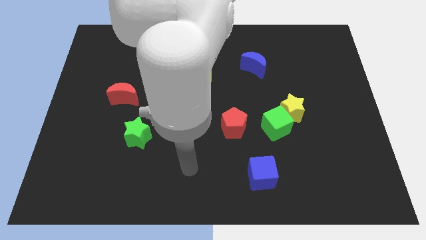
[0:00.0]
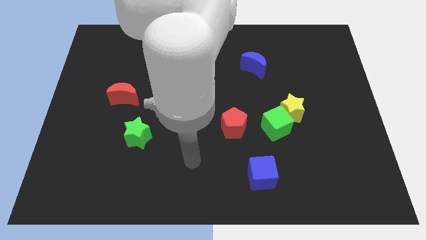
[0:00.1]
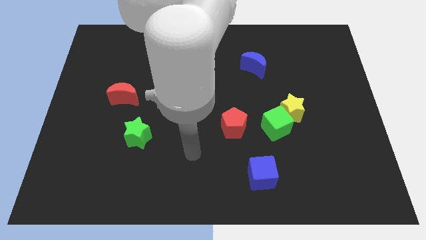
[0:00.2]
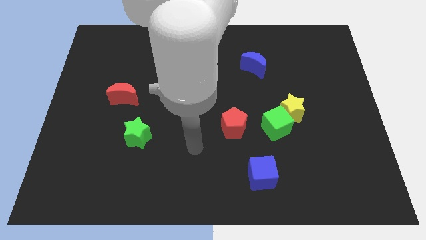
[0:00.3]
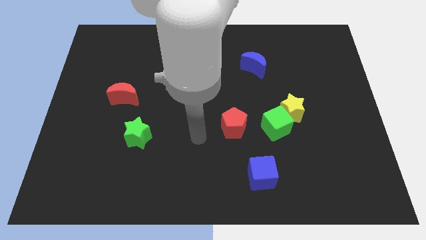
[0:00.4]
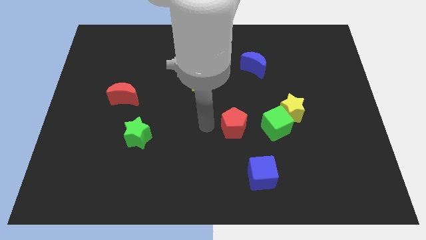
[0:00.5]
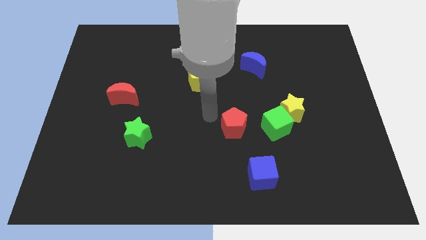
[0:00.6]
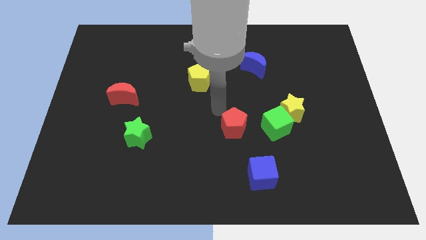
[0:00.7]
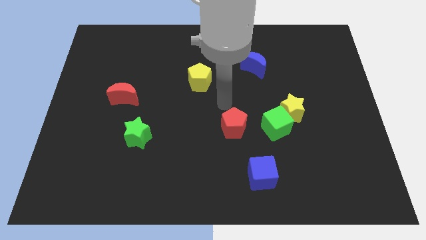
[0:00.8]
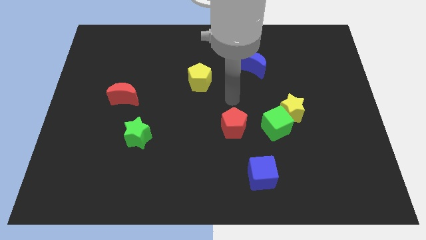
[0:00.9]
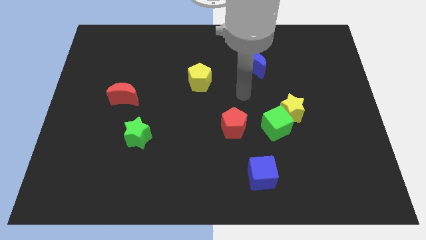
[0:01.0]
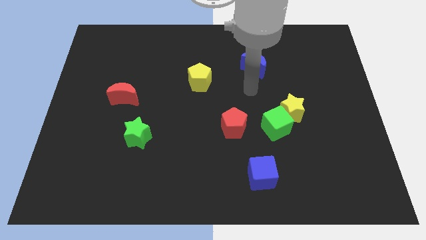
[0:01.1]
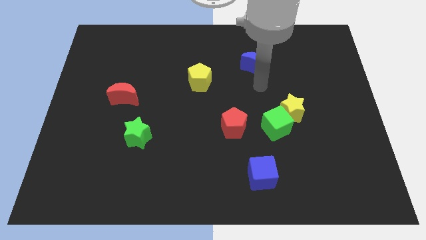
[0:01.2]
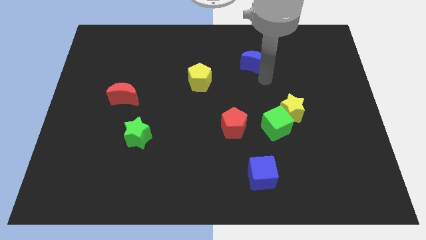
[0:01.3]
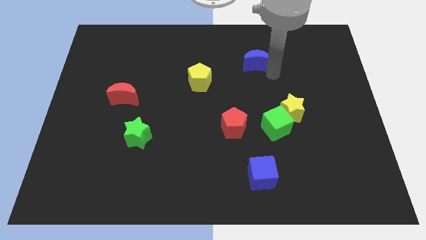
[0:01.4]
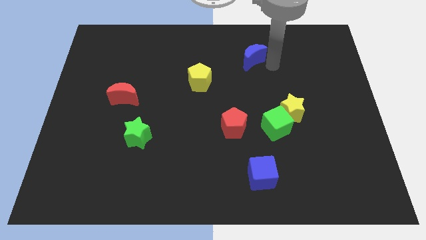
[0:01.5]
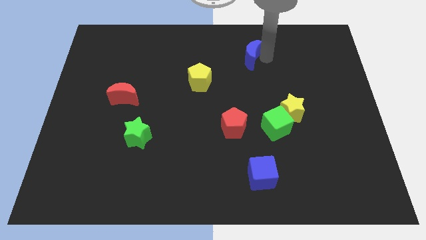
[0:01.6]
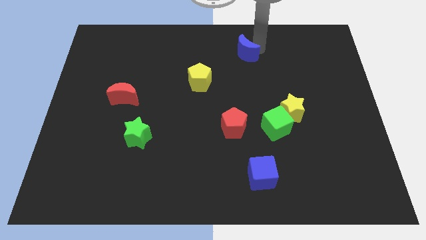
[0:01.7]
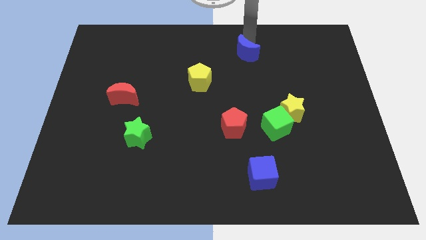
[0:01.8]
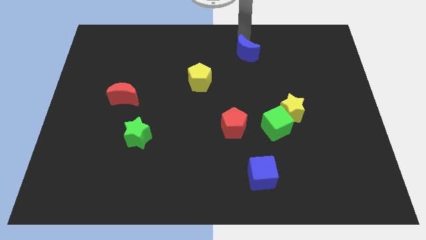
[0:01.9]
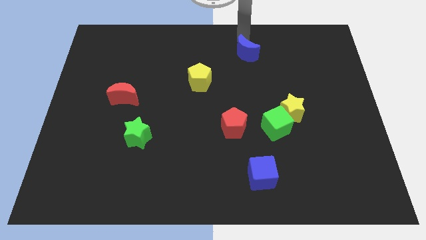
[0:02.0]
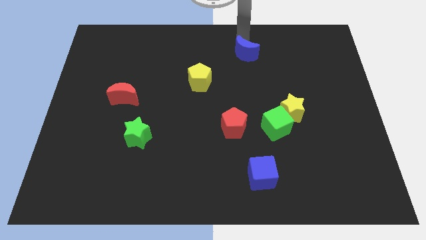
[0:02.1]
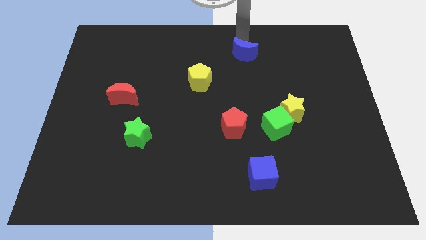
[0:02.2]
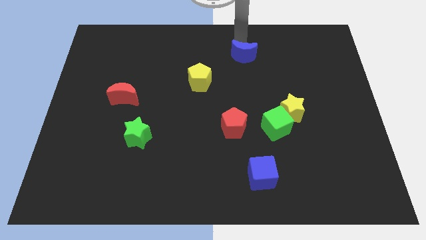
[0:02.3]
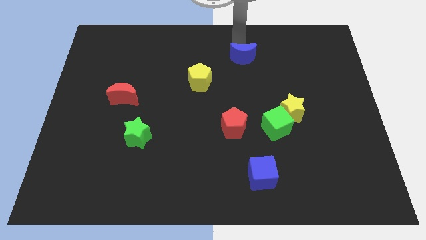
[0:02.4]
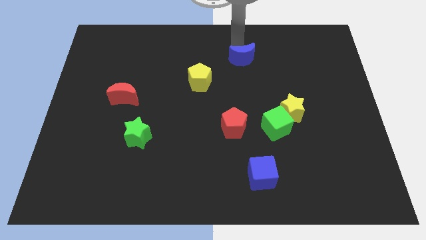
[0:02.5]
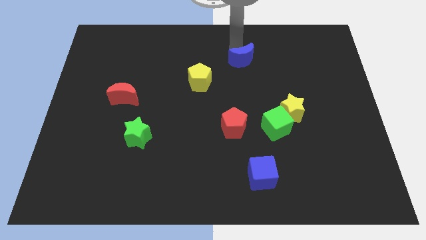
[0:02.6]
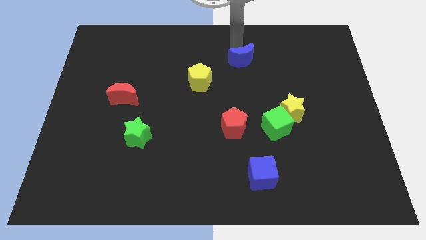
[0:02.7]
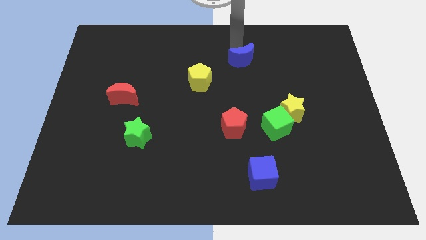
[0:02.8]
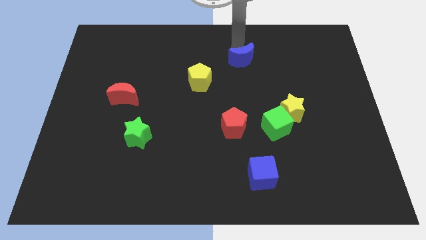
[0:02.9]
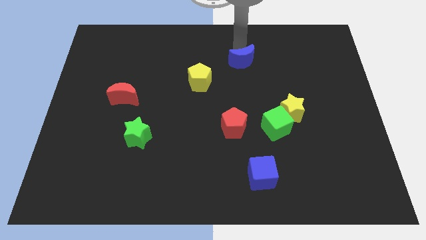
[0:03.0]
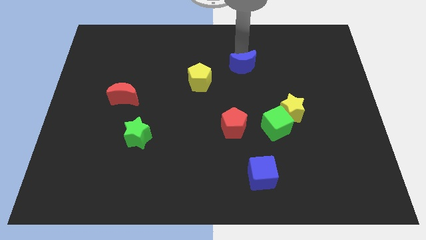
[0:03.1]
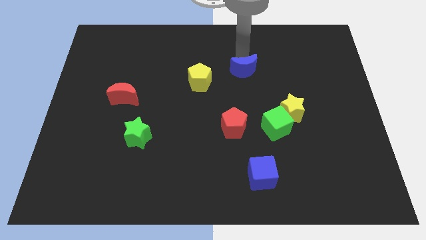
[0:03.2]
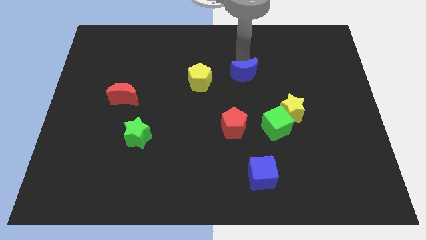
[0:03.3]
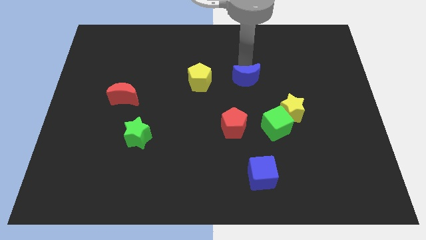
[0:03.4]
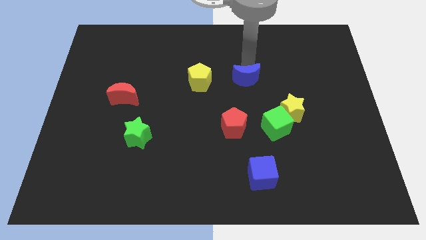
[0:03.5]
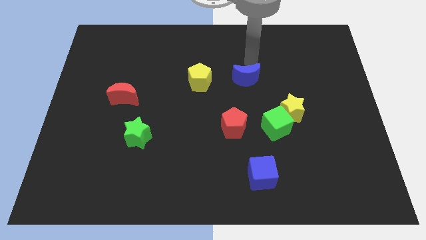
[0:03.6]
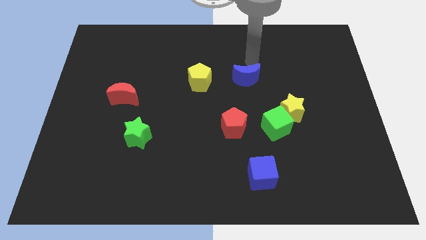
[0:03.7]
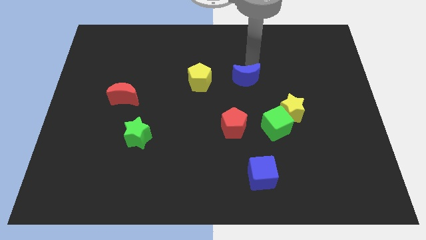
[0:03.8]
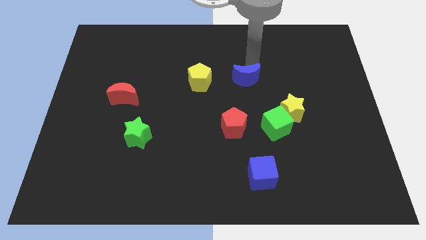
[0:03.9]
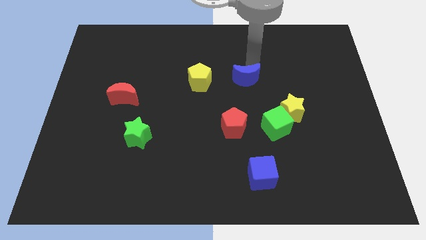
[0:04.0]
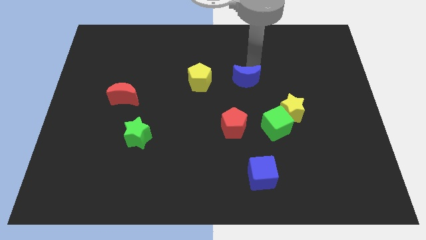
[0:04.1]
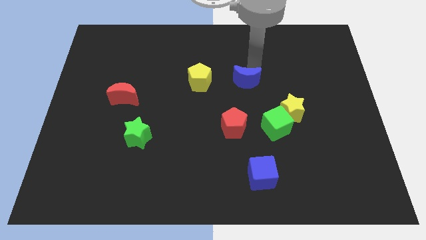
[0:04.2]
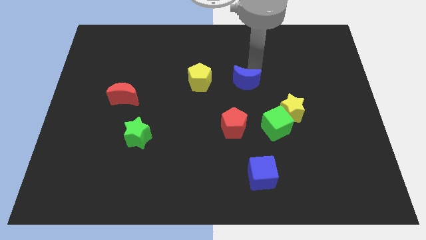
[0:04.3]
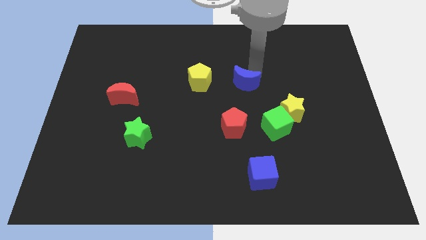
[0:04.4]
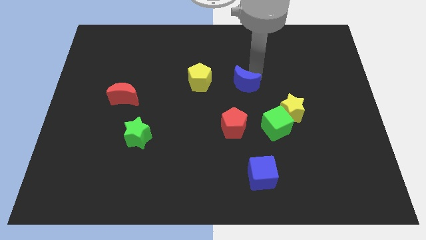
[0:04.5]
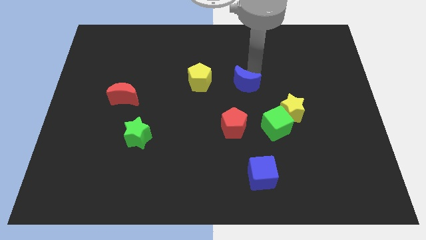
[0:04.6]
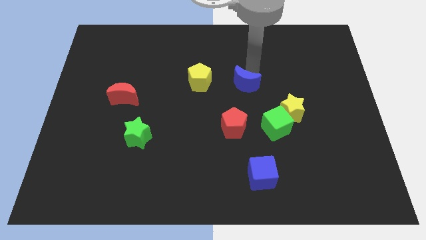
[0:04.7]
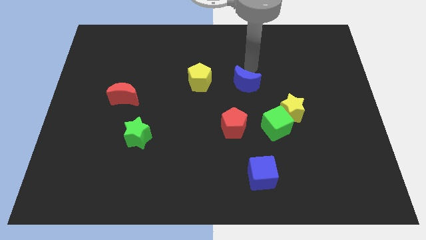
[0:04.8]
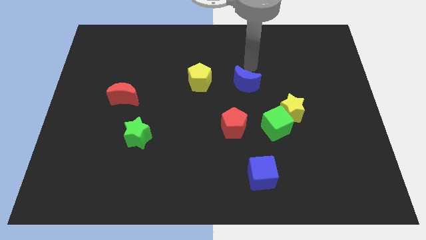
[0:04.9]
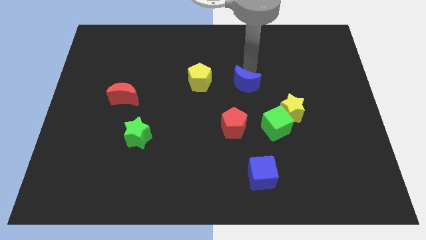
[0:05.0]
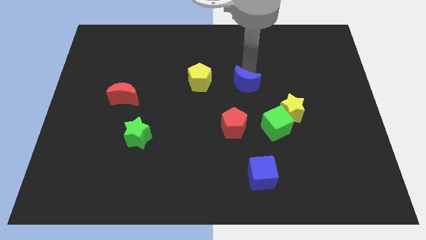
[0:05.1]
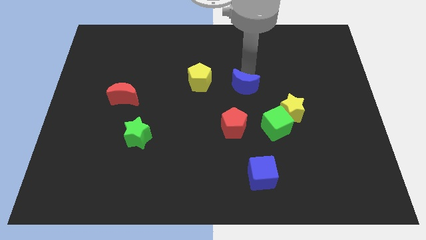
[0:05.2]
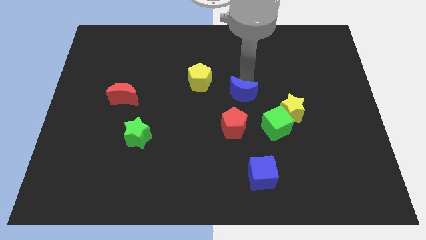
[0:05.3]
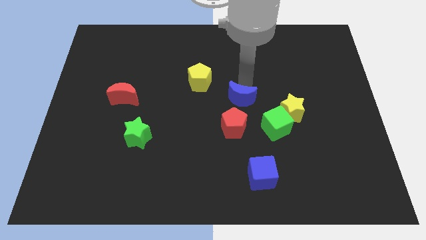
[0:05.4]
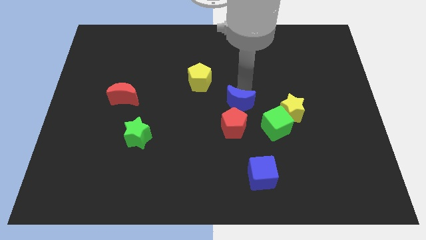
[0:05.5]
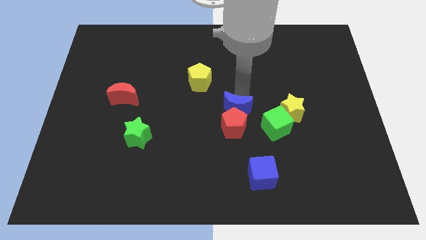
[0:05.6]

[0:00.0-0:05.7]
slide the blue moon towards the red pentagon

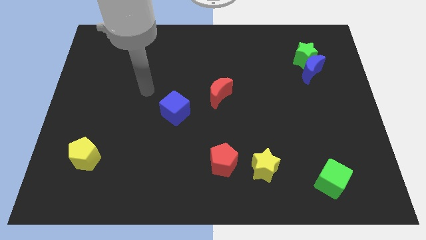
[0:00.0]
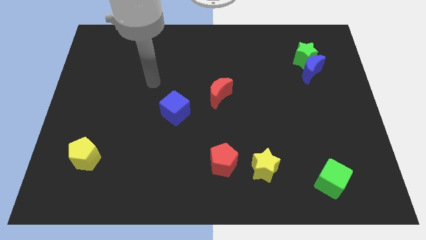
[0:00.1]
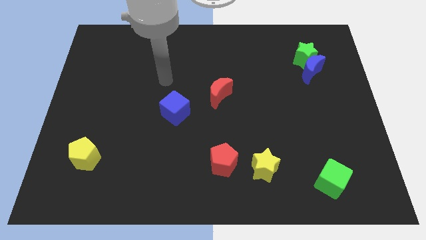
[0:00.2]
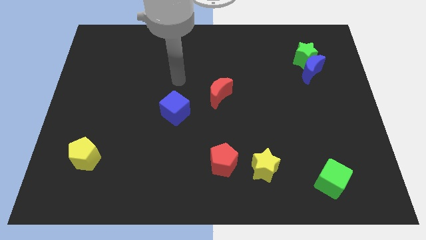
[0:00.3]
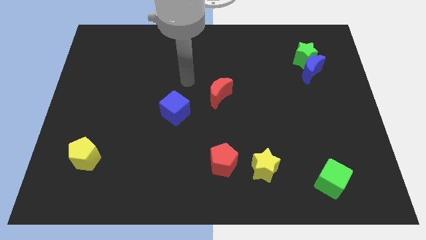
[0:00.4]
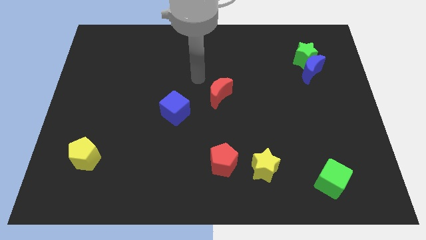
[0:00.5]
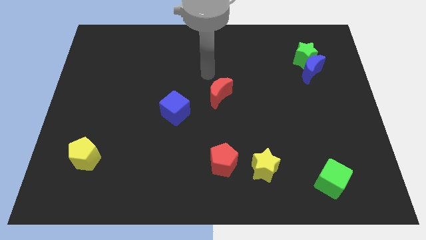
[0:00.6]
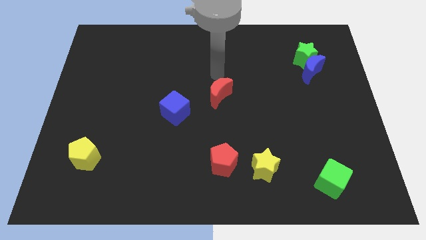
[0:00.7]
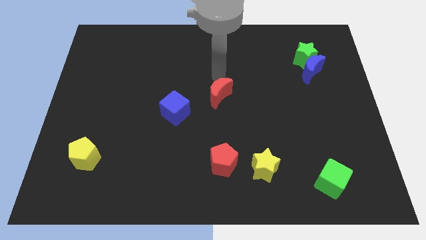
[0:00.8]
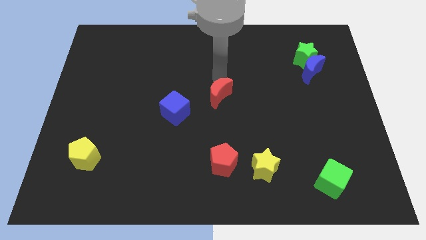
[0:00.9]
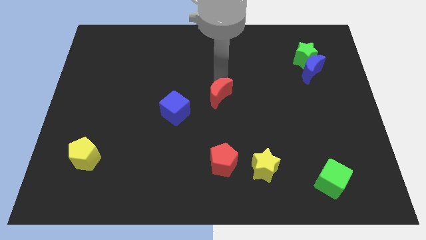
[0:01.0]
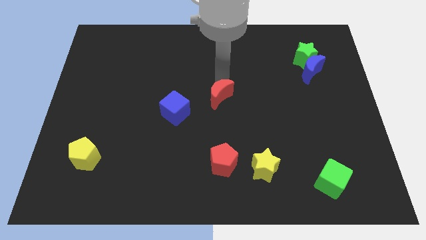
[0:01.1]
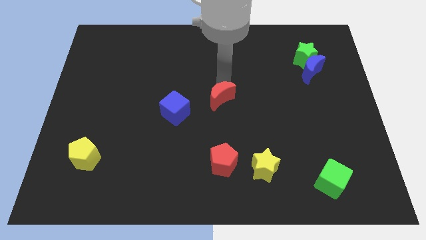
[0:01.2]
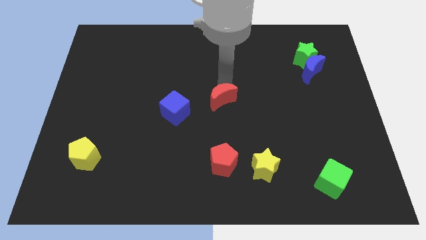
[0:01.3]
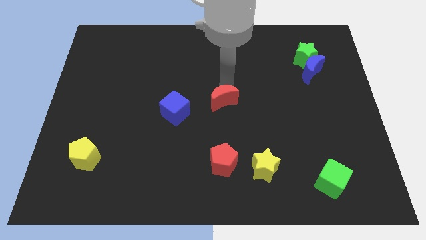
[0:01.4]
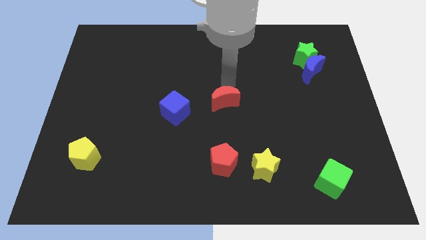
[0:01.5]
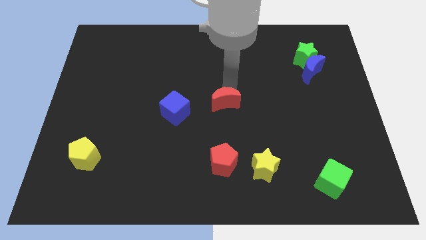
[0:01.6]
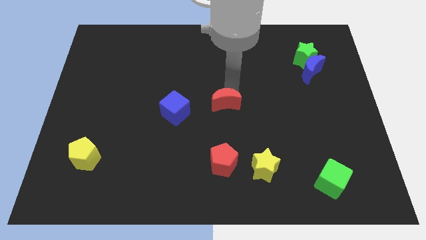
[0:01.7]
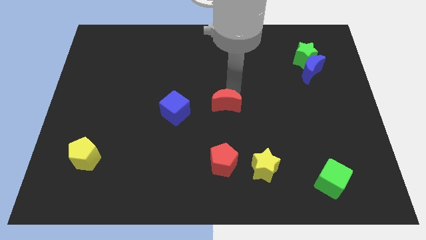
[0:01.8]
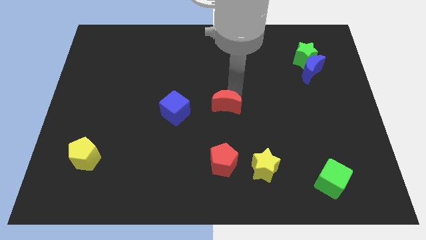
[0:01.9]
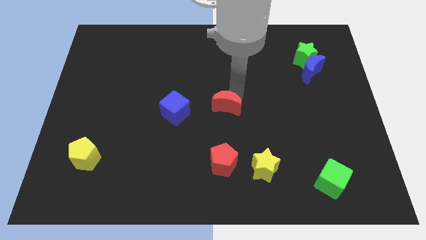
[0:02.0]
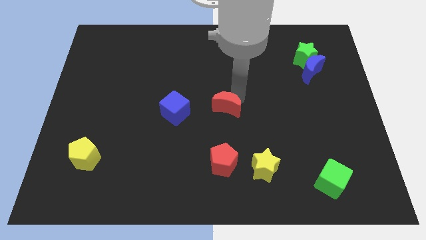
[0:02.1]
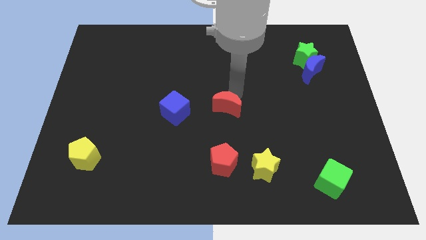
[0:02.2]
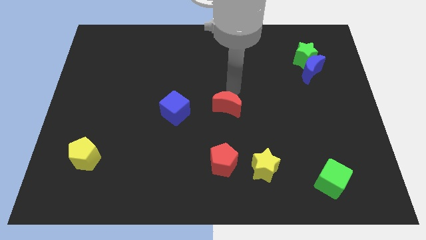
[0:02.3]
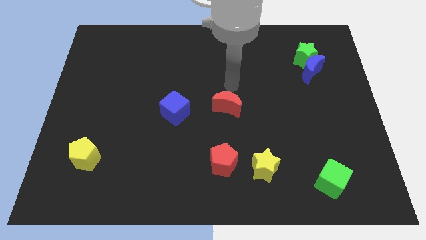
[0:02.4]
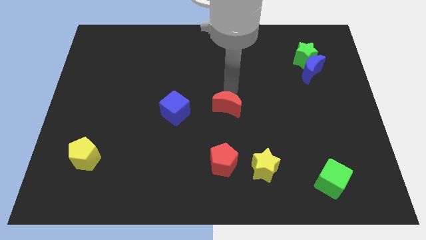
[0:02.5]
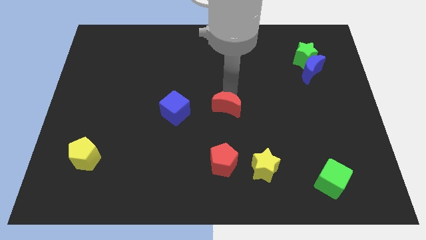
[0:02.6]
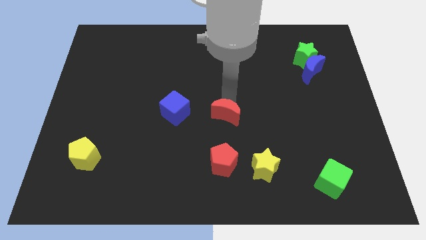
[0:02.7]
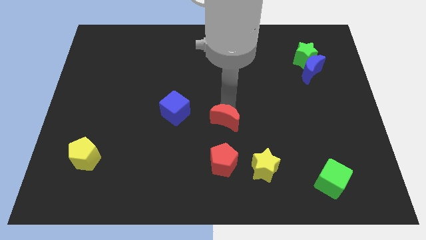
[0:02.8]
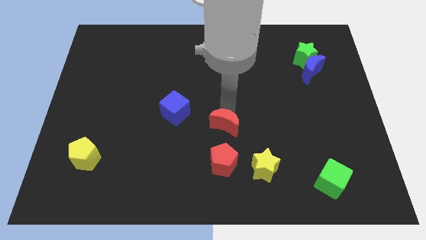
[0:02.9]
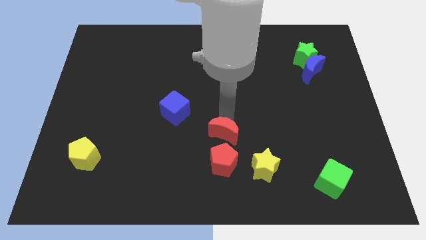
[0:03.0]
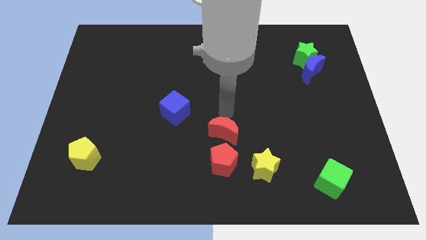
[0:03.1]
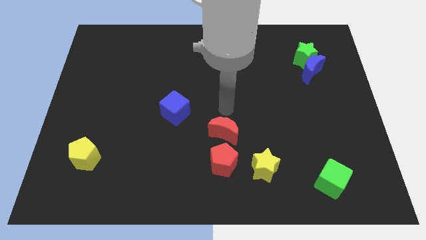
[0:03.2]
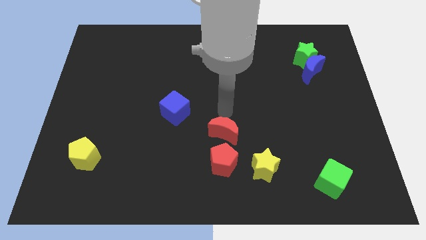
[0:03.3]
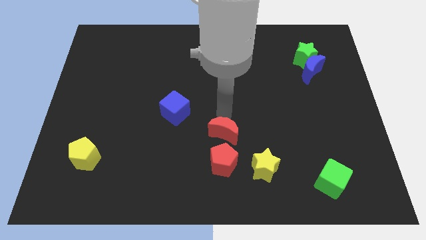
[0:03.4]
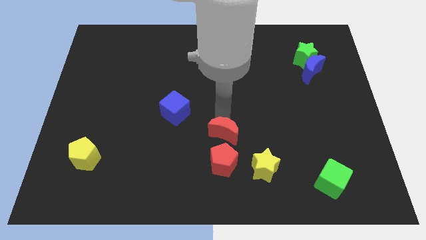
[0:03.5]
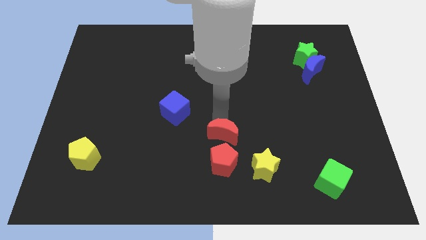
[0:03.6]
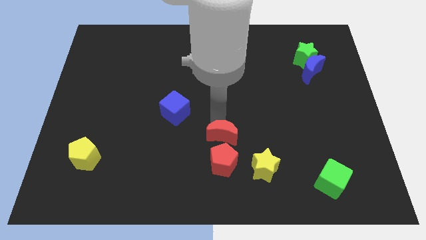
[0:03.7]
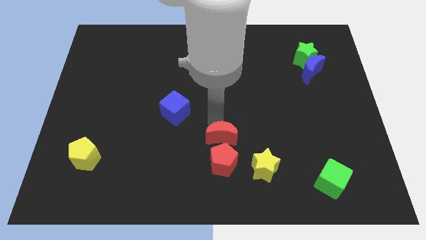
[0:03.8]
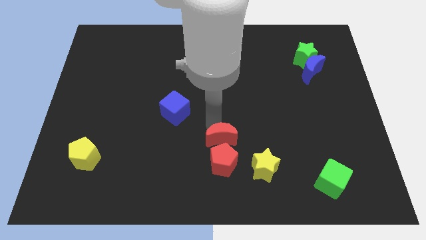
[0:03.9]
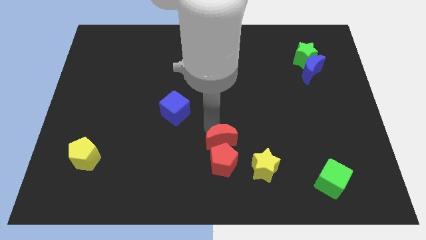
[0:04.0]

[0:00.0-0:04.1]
put the red moon close to the red pentagon
